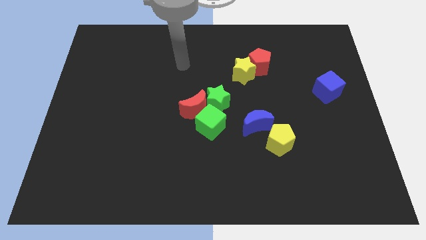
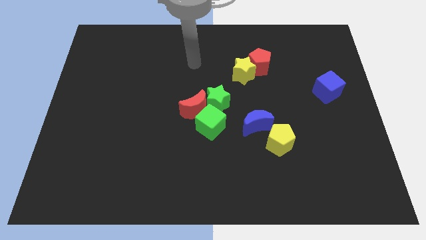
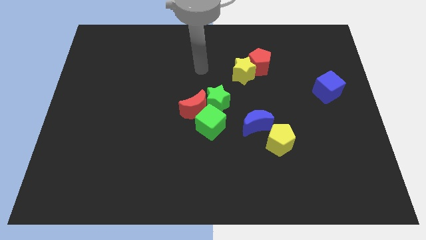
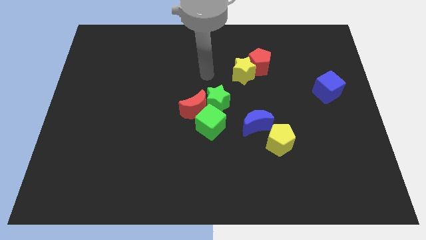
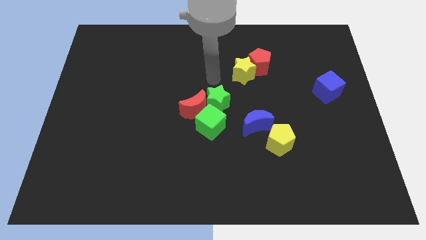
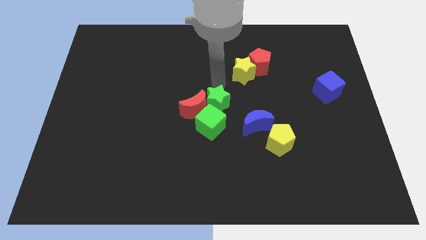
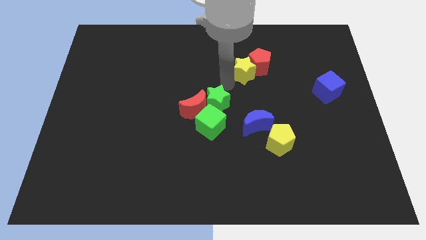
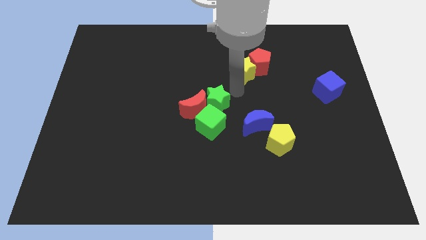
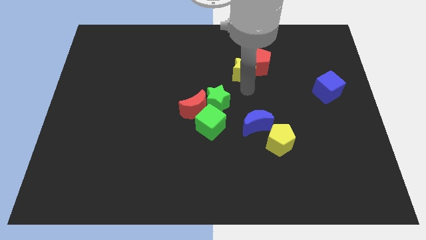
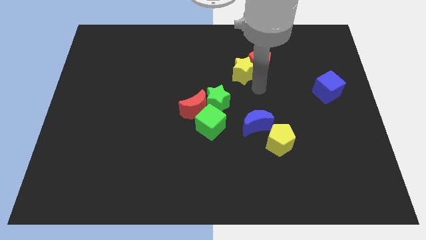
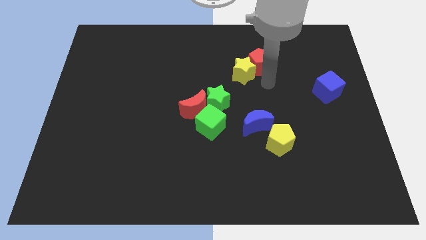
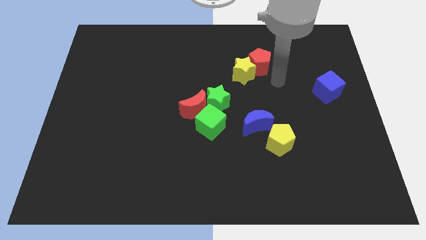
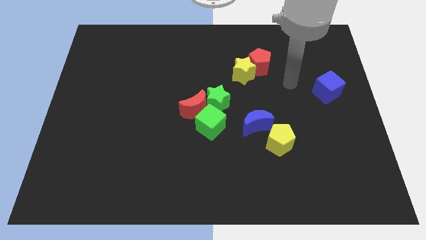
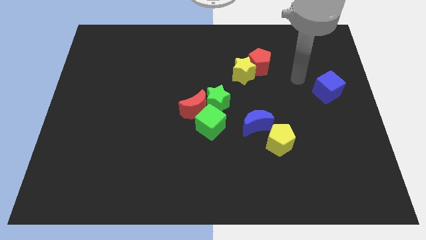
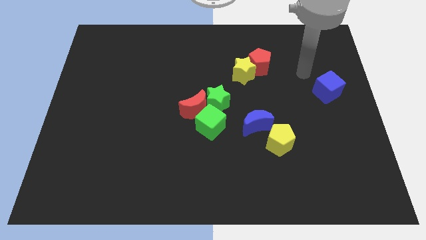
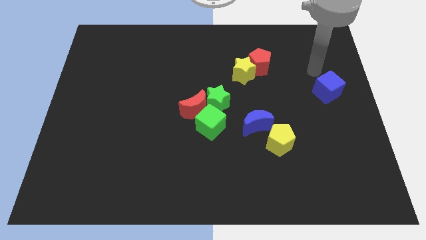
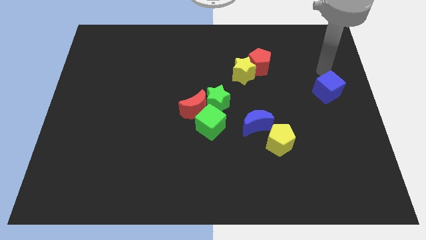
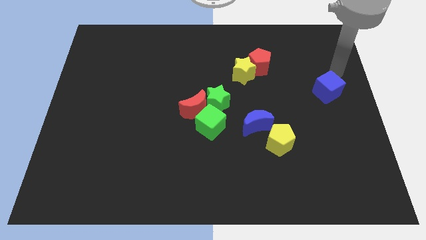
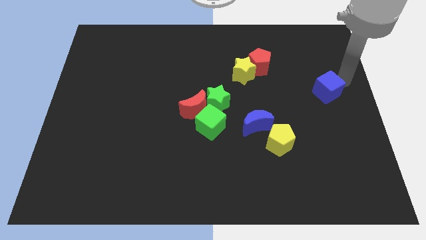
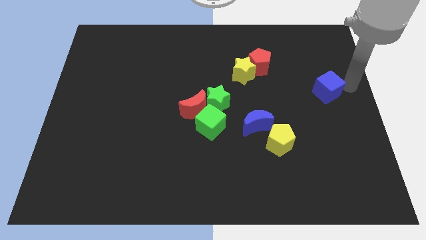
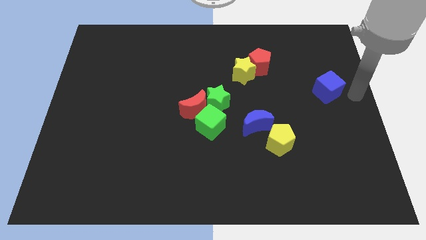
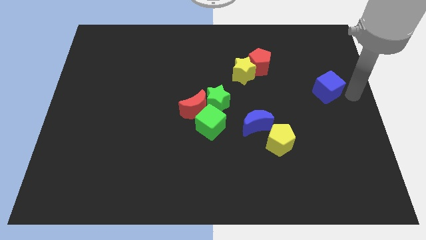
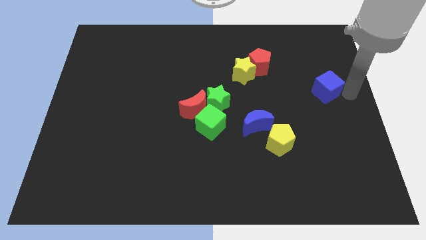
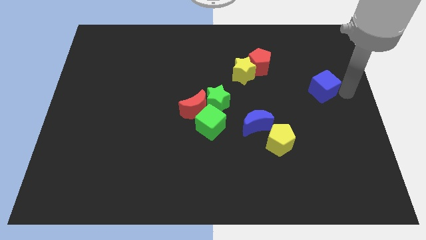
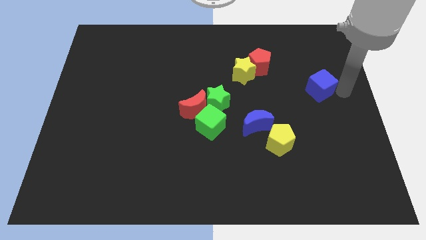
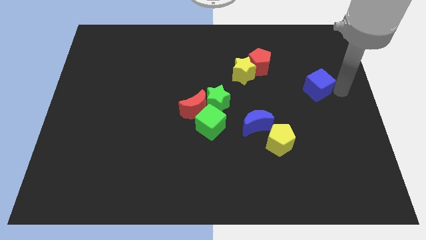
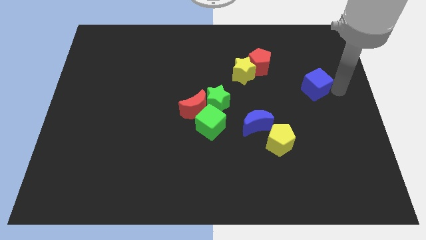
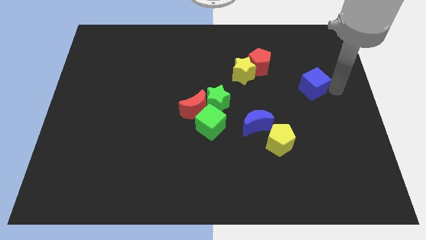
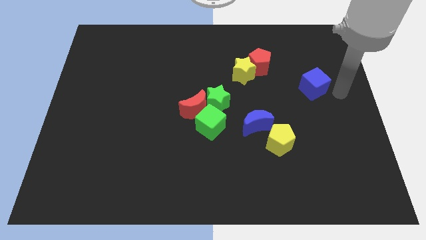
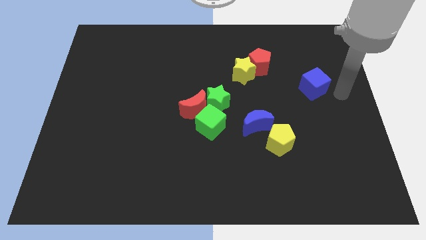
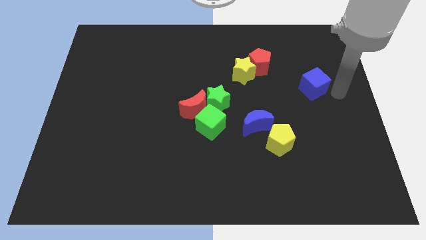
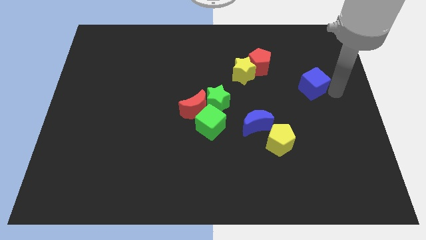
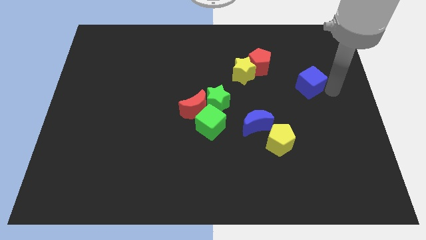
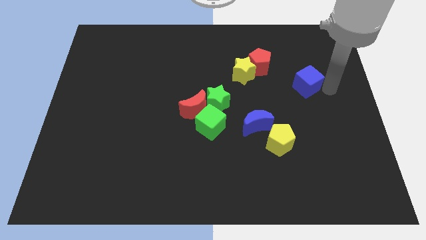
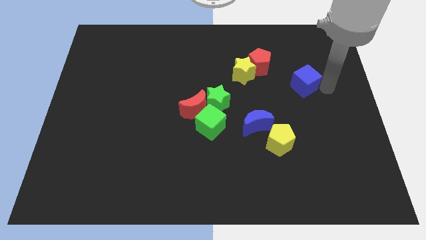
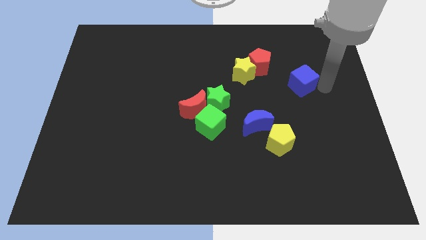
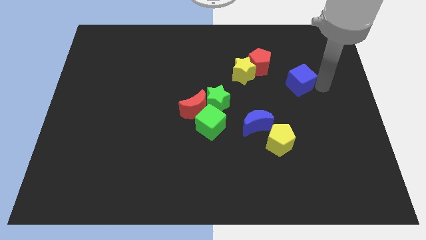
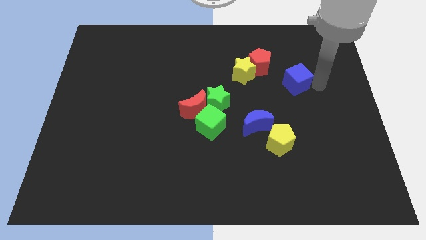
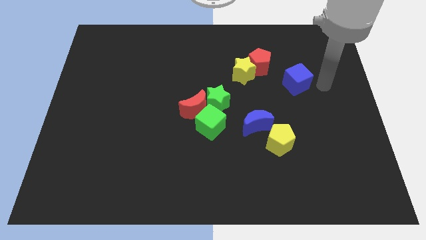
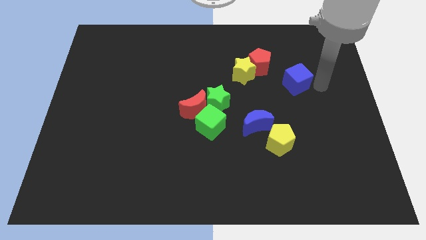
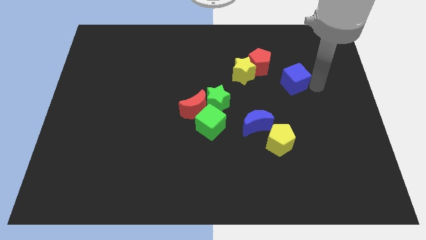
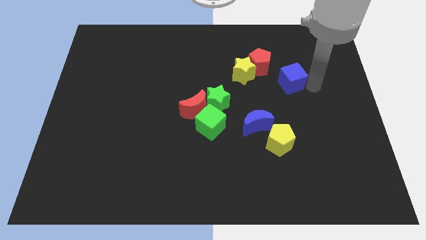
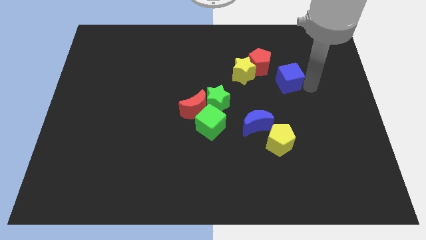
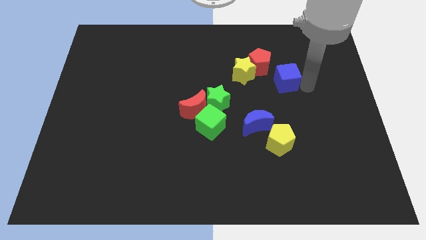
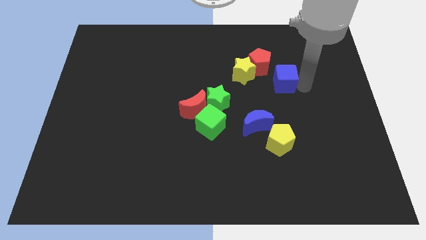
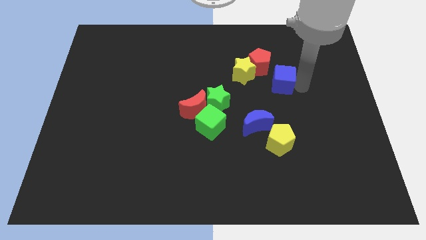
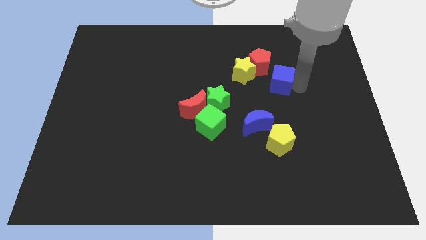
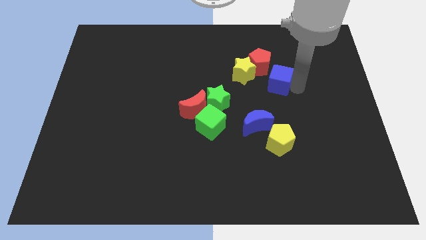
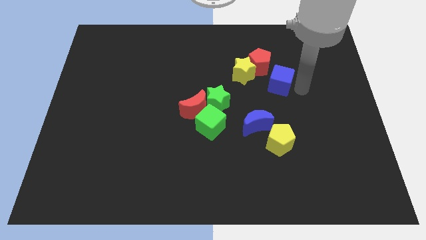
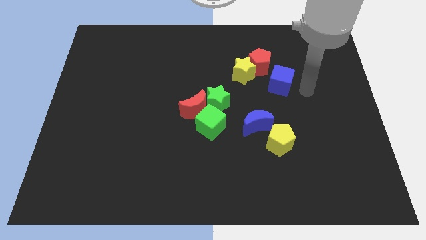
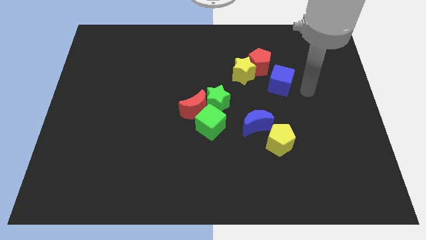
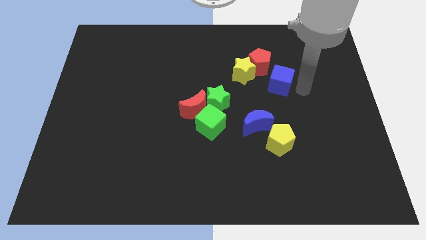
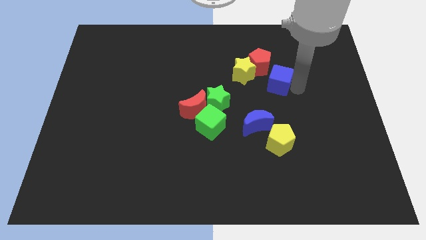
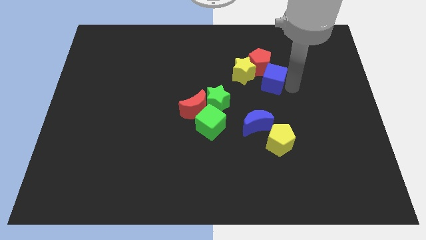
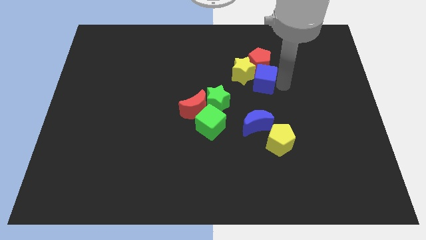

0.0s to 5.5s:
put the blue cube towards the yellow star

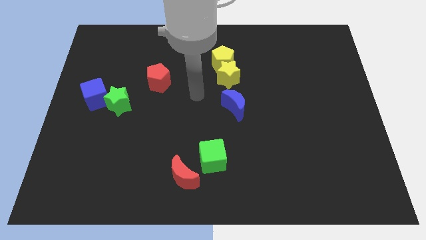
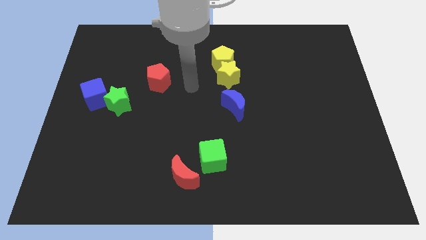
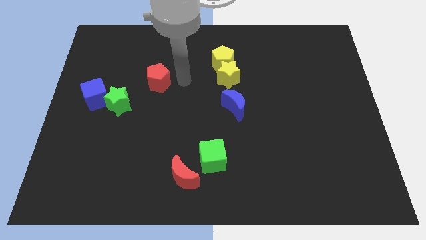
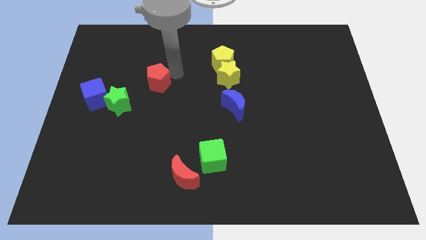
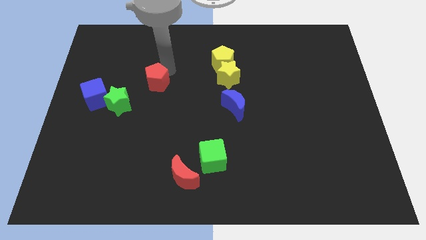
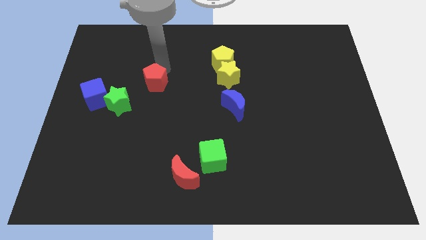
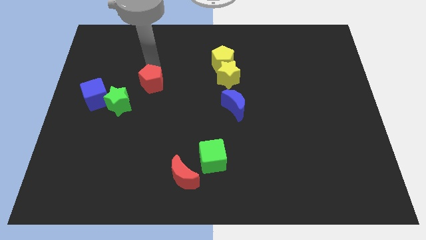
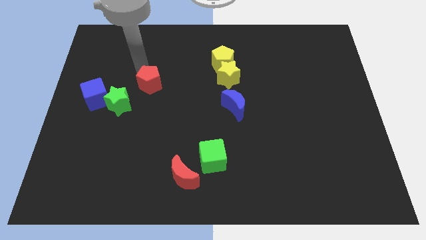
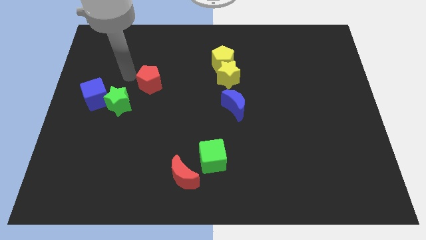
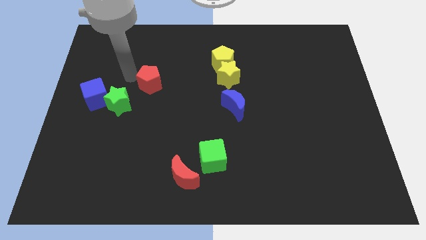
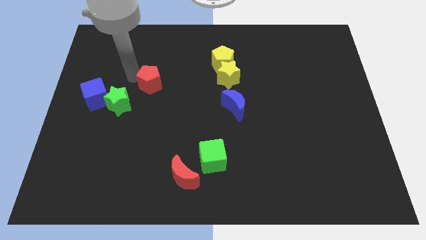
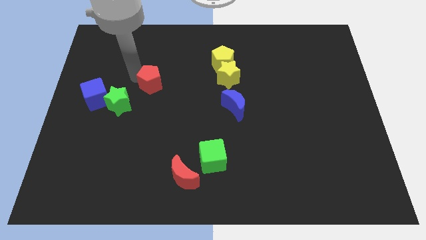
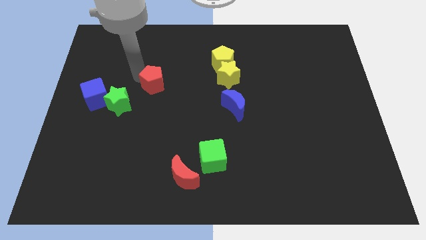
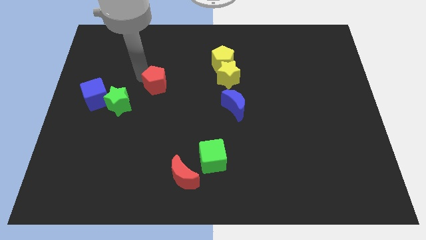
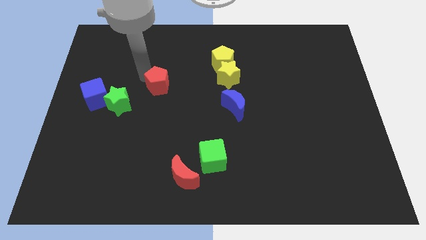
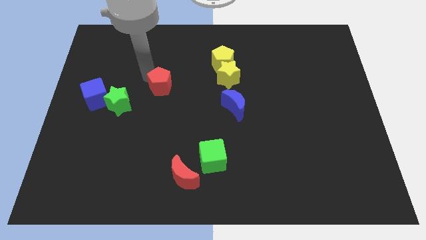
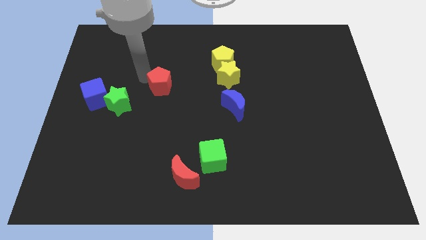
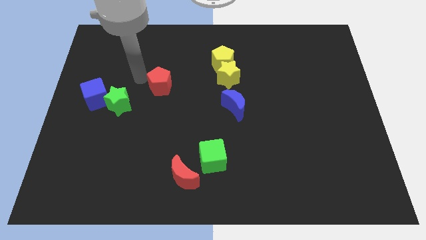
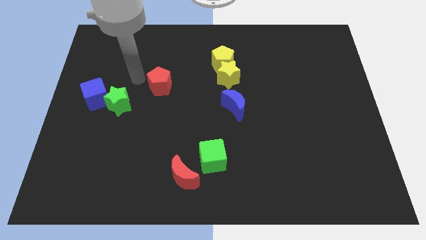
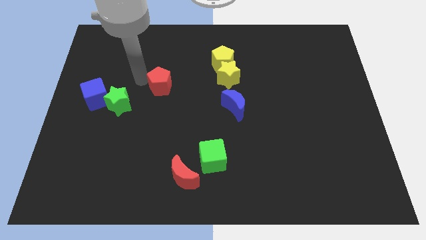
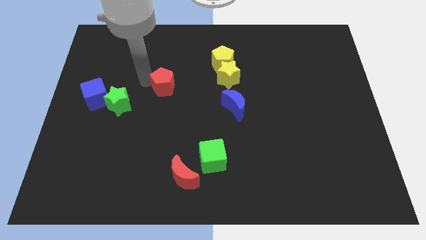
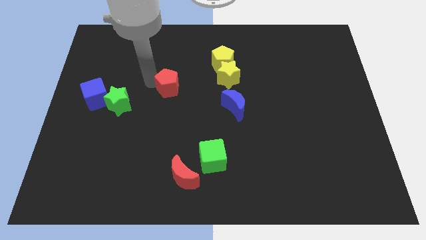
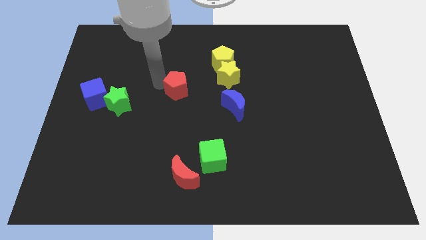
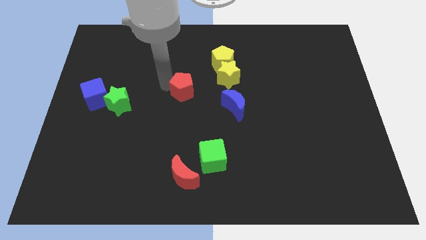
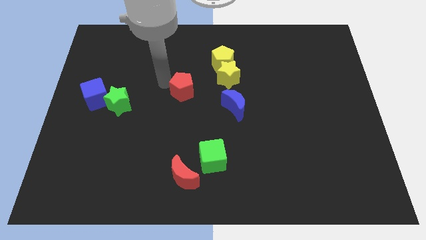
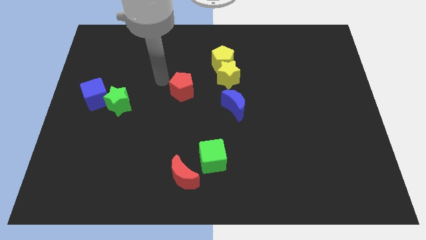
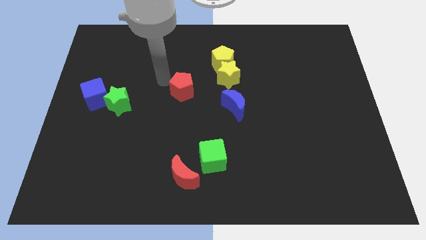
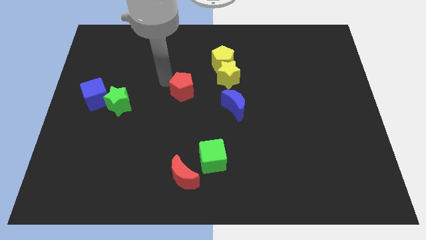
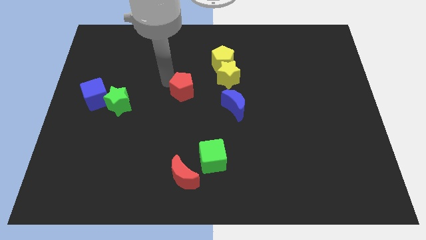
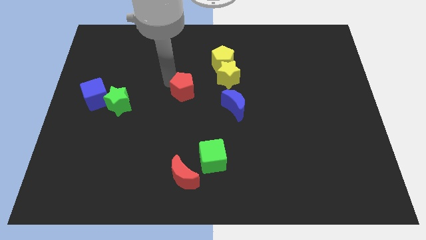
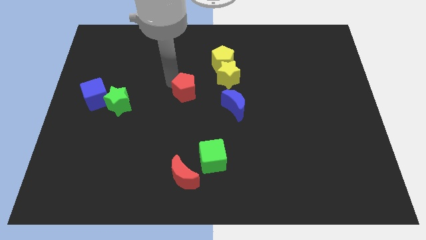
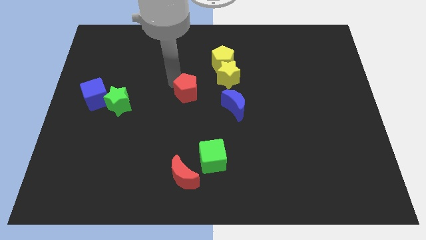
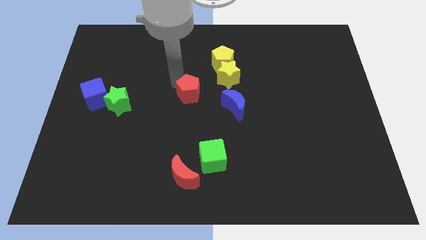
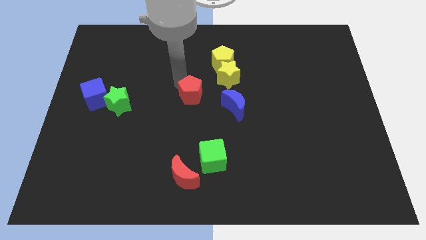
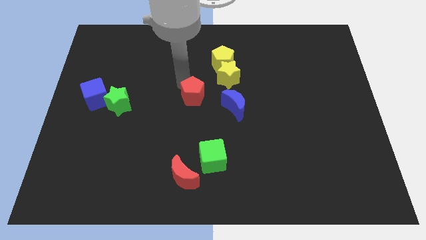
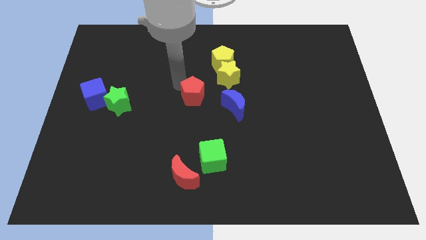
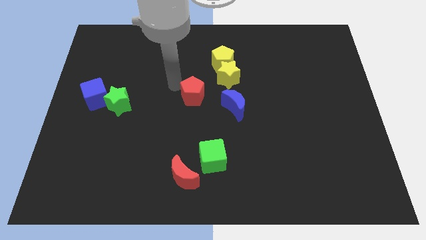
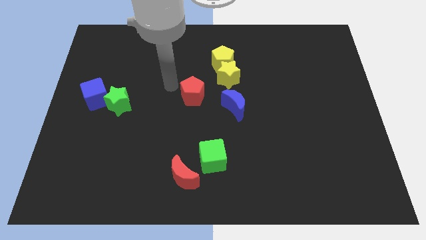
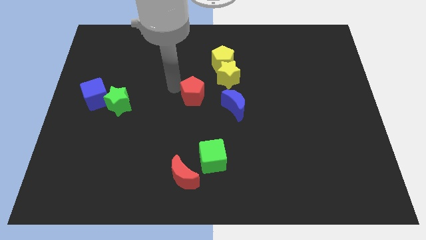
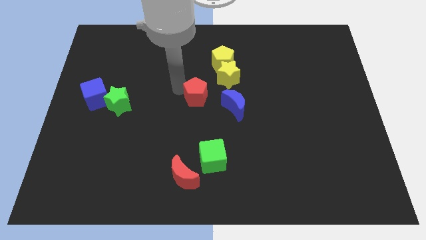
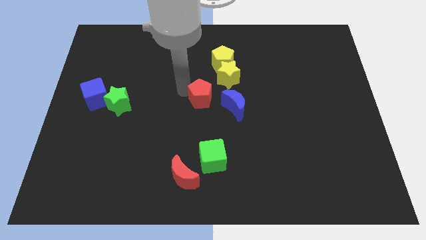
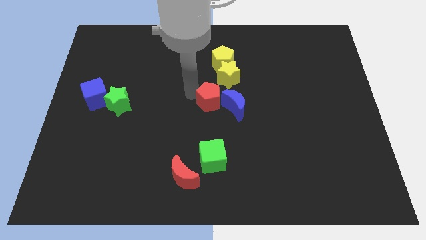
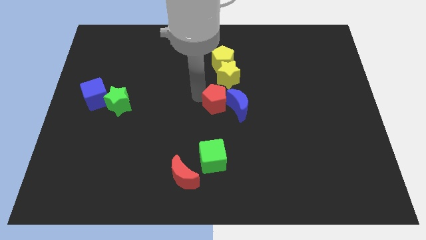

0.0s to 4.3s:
put the red pentagon to the blue moon
